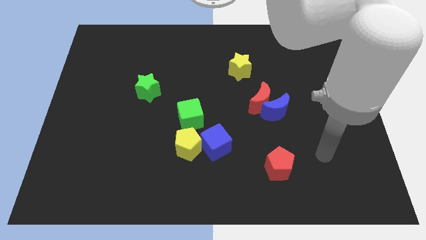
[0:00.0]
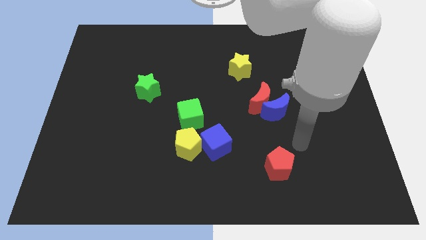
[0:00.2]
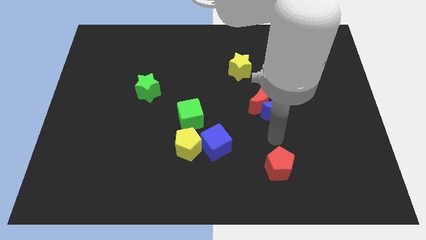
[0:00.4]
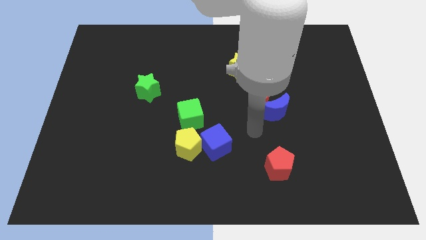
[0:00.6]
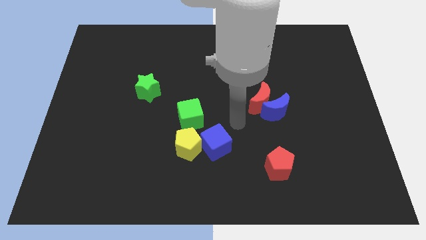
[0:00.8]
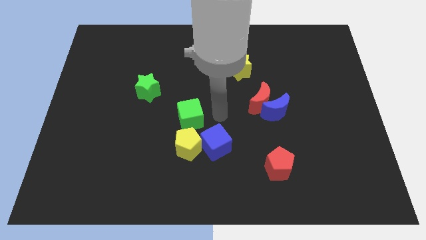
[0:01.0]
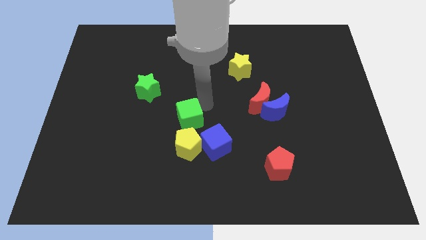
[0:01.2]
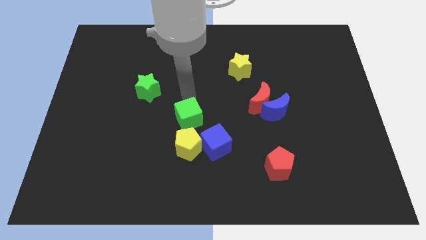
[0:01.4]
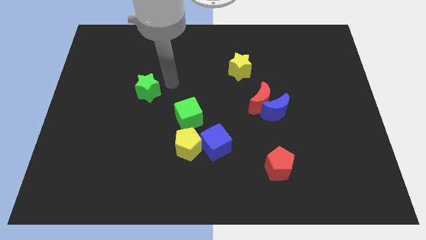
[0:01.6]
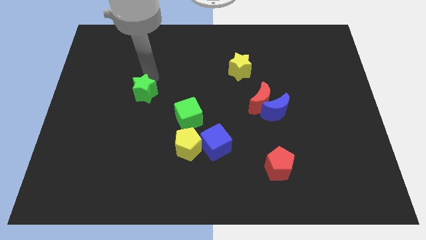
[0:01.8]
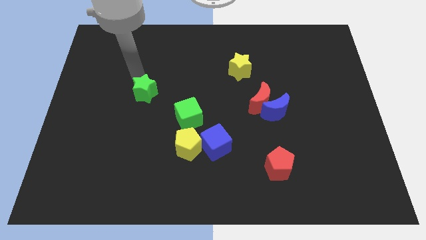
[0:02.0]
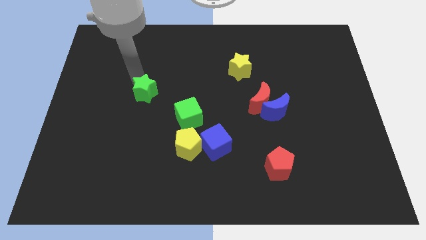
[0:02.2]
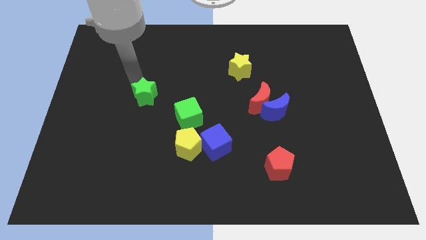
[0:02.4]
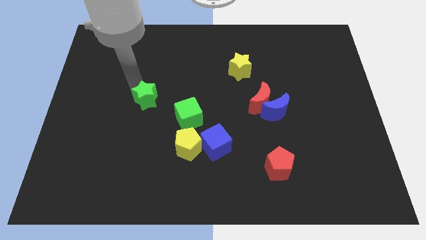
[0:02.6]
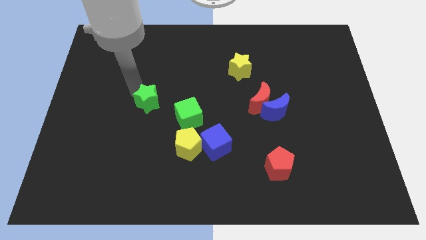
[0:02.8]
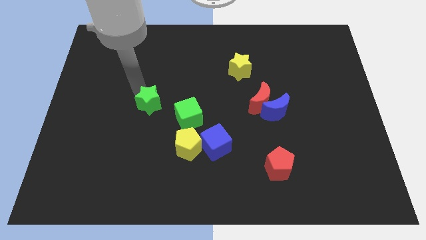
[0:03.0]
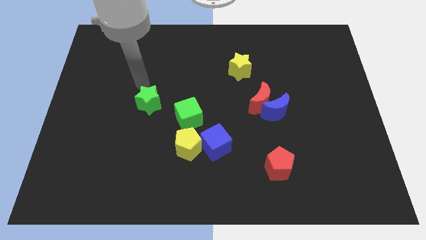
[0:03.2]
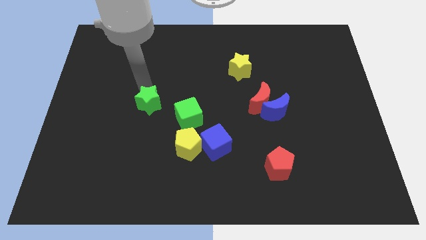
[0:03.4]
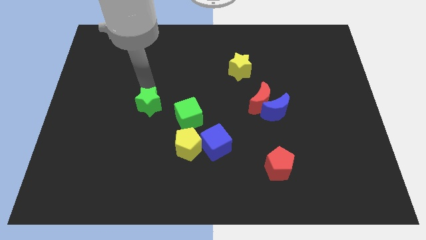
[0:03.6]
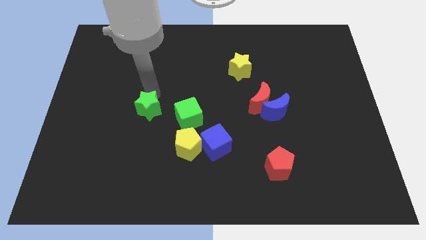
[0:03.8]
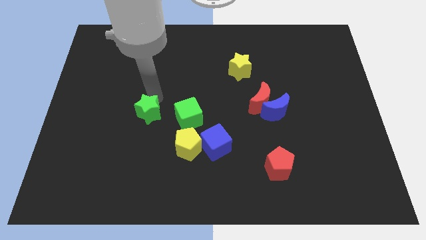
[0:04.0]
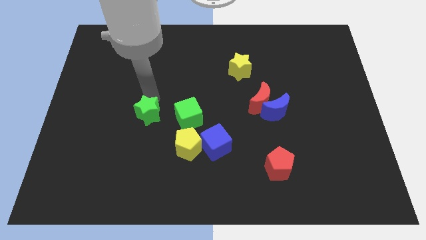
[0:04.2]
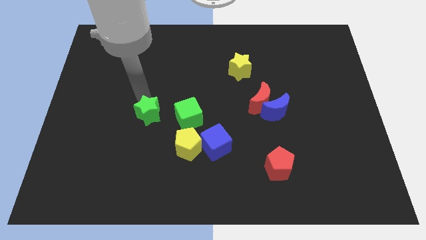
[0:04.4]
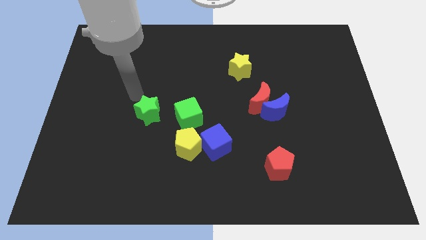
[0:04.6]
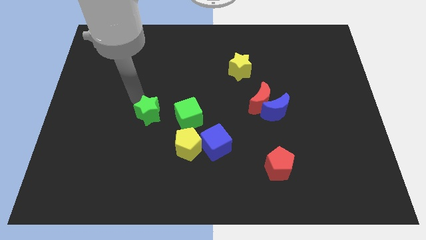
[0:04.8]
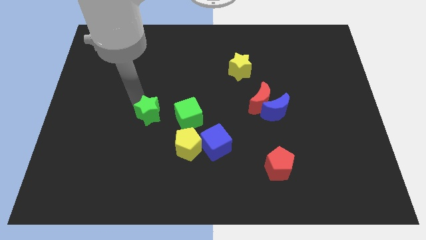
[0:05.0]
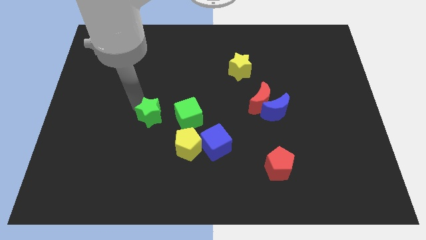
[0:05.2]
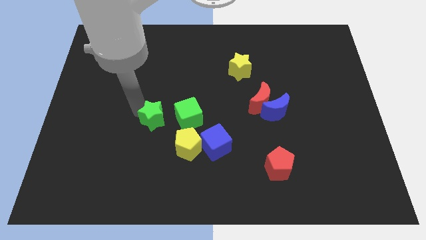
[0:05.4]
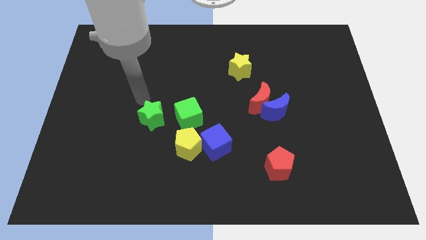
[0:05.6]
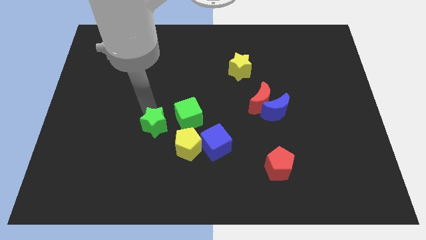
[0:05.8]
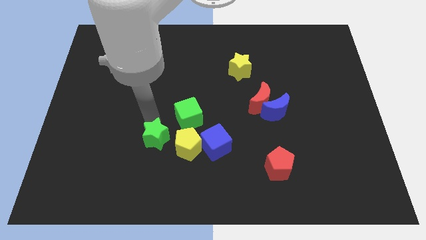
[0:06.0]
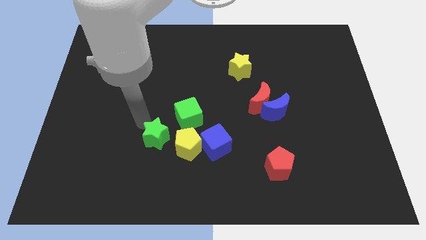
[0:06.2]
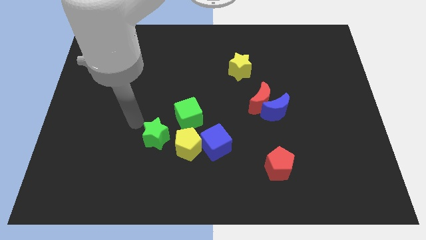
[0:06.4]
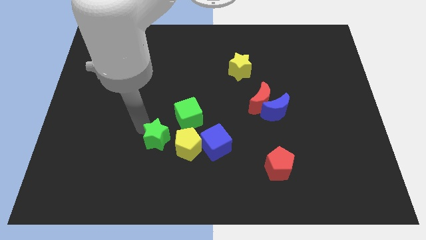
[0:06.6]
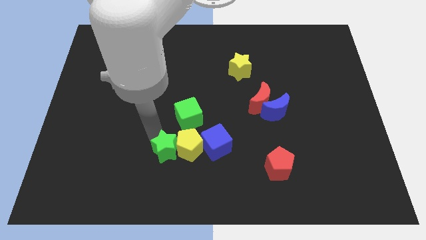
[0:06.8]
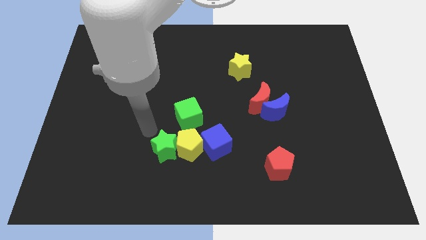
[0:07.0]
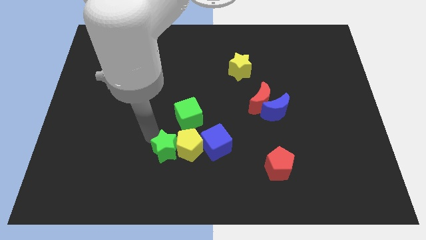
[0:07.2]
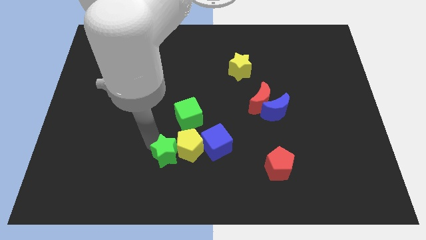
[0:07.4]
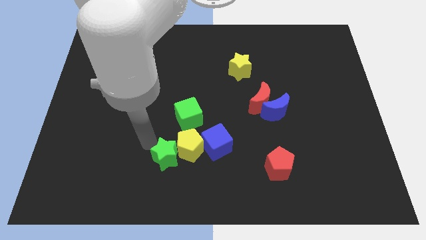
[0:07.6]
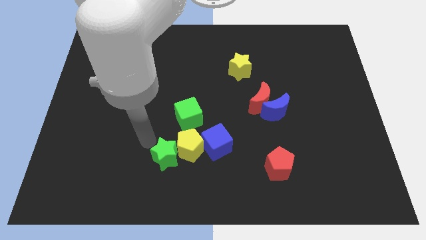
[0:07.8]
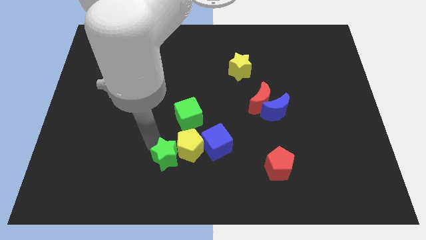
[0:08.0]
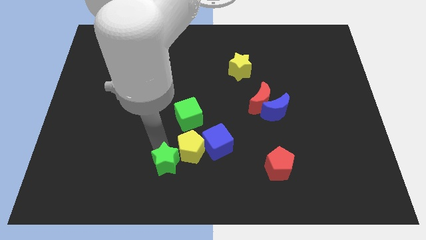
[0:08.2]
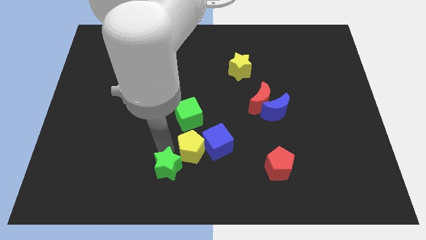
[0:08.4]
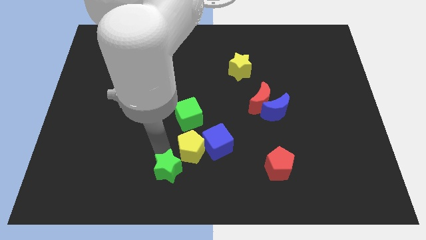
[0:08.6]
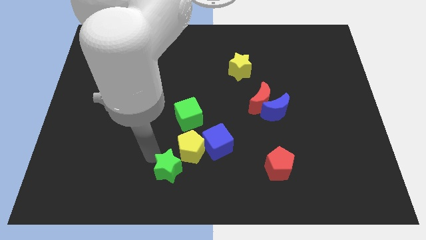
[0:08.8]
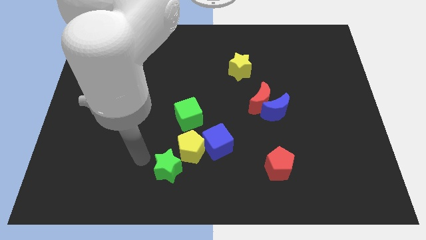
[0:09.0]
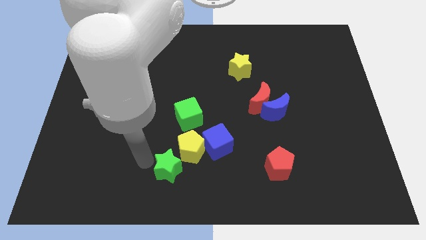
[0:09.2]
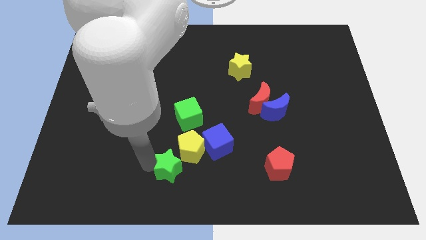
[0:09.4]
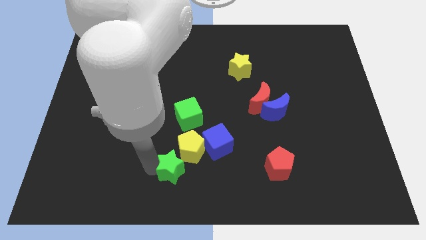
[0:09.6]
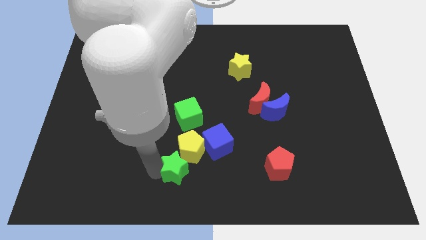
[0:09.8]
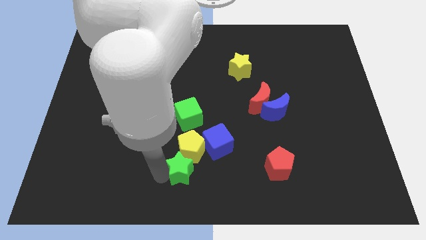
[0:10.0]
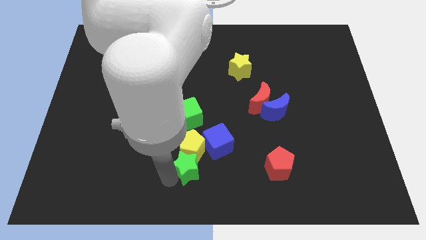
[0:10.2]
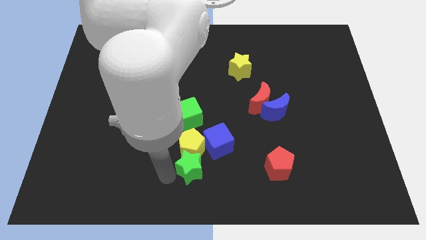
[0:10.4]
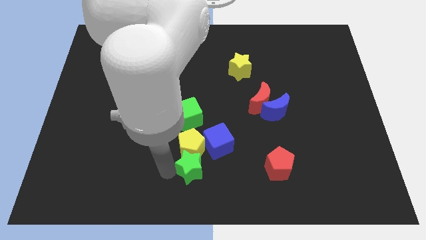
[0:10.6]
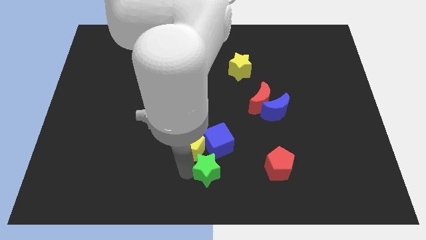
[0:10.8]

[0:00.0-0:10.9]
push the green star to the left of the red pentagon

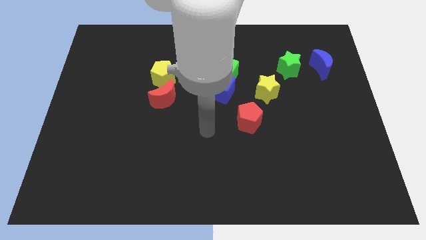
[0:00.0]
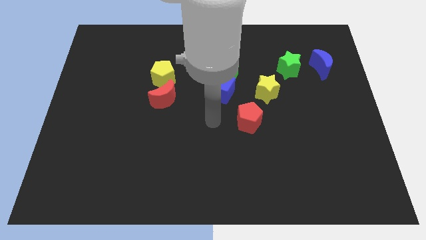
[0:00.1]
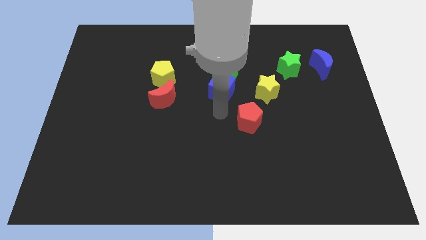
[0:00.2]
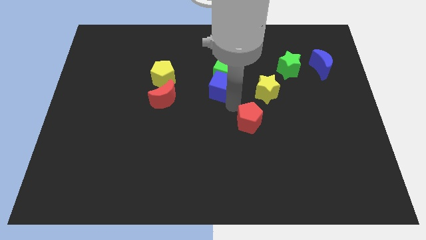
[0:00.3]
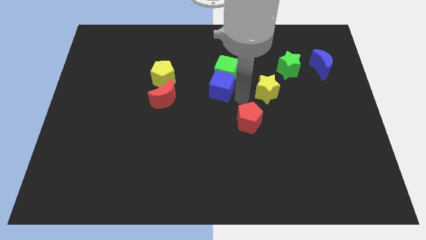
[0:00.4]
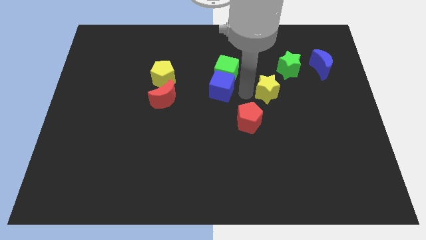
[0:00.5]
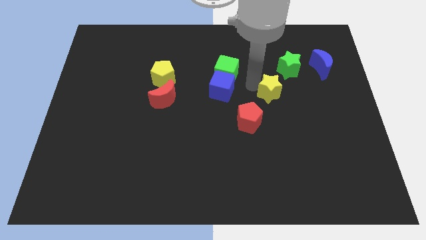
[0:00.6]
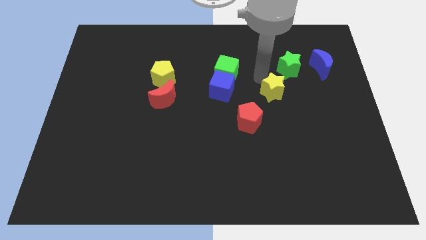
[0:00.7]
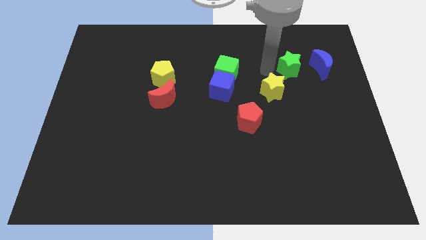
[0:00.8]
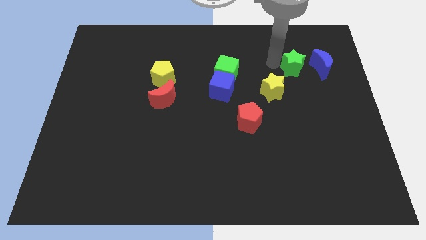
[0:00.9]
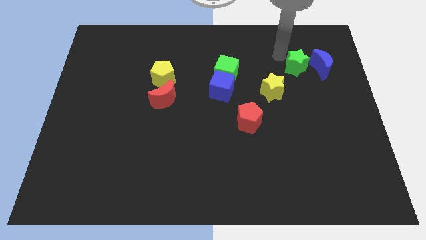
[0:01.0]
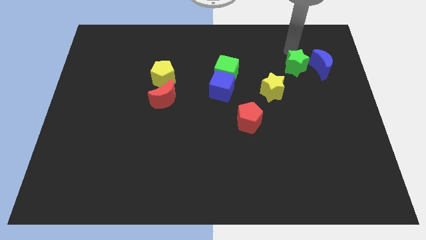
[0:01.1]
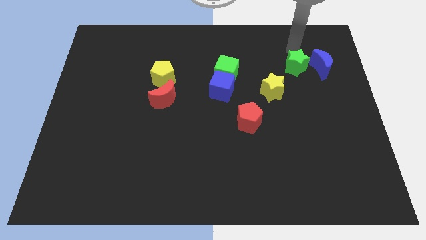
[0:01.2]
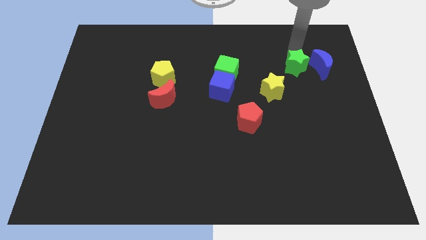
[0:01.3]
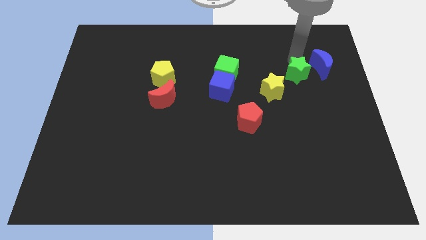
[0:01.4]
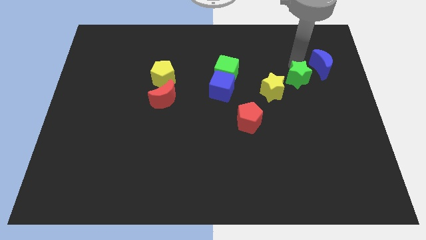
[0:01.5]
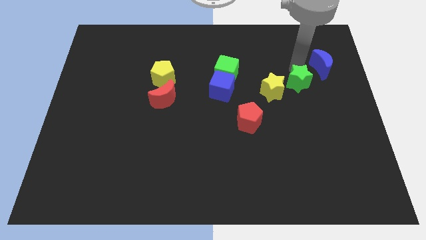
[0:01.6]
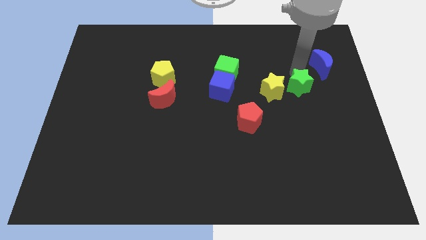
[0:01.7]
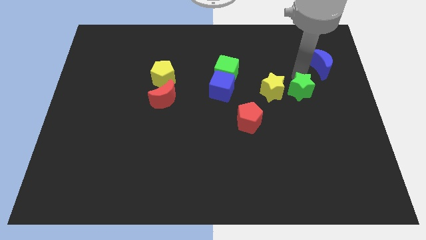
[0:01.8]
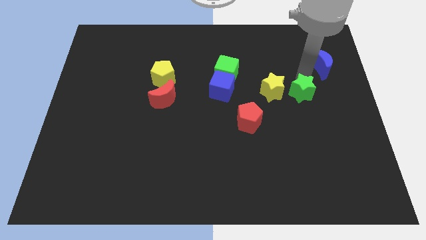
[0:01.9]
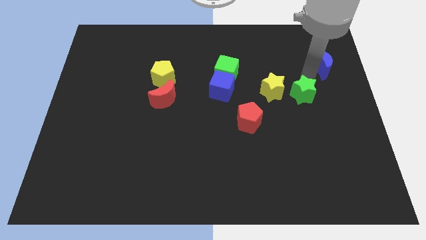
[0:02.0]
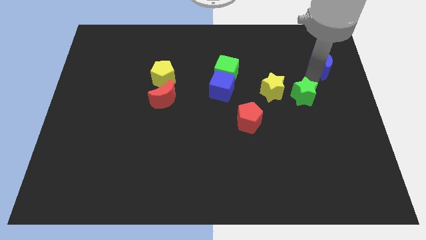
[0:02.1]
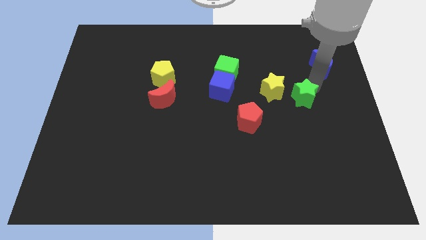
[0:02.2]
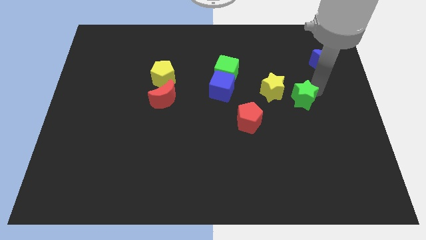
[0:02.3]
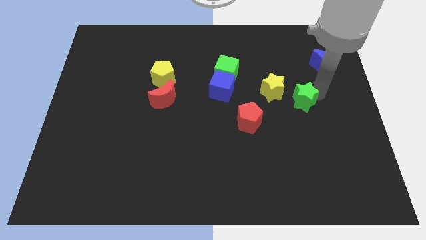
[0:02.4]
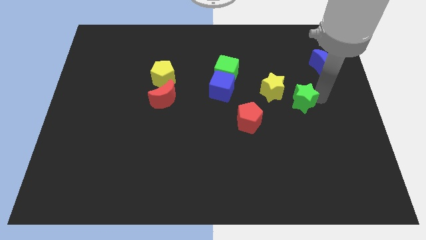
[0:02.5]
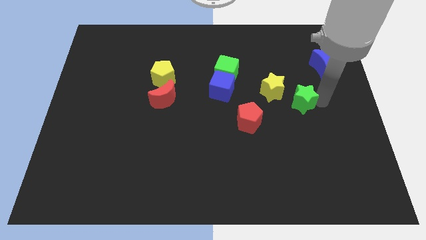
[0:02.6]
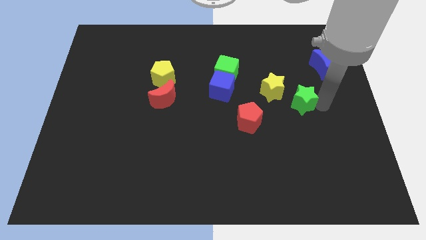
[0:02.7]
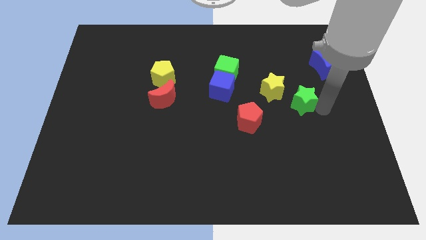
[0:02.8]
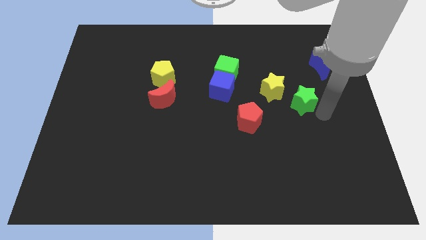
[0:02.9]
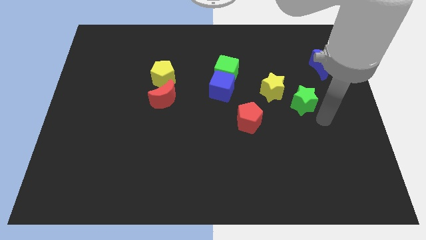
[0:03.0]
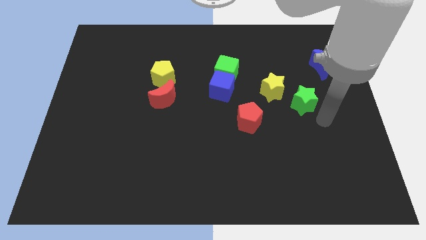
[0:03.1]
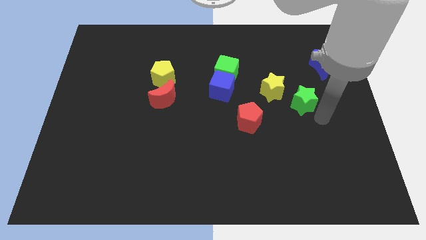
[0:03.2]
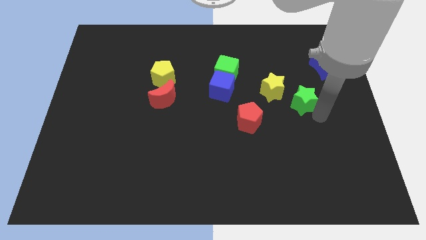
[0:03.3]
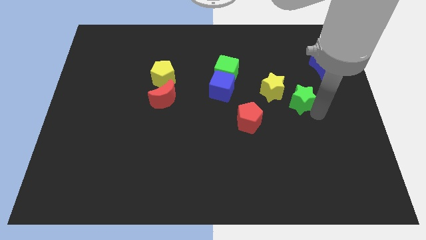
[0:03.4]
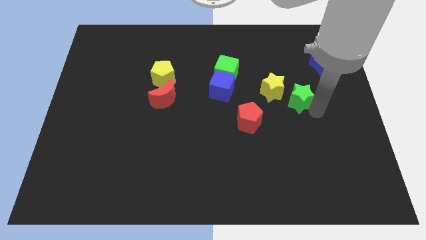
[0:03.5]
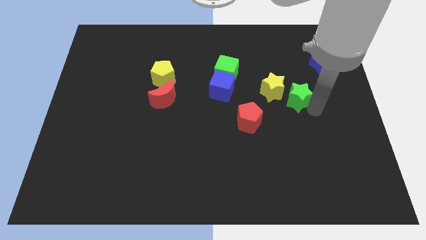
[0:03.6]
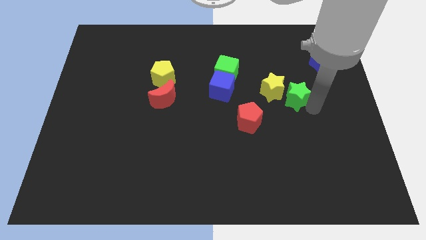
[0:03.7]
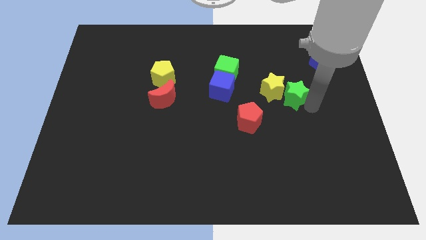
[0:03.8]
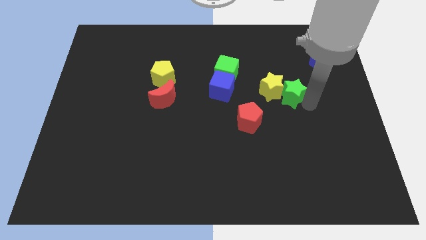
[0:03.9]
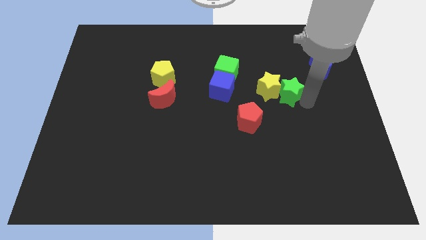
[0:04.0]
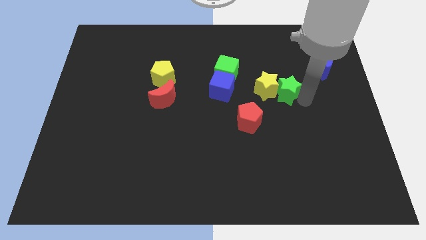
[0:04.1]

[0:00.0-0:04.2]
put the green star right of the blue cube
